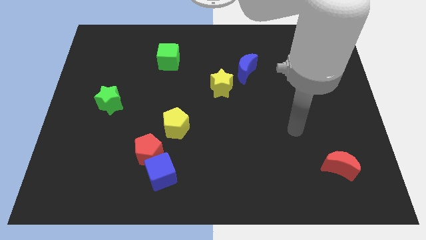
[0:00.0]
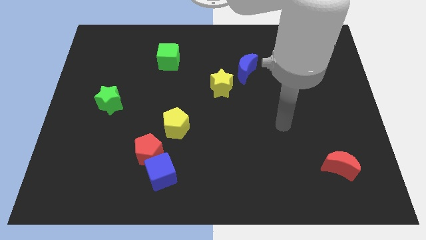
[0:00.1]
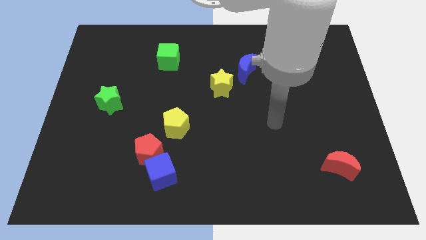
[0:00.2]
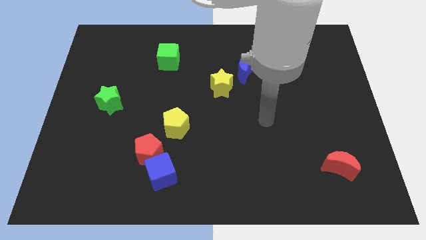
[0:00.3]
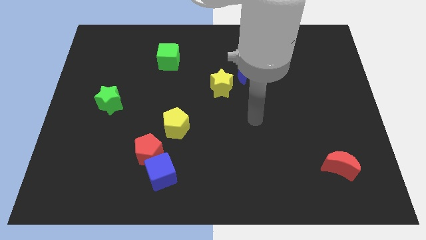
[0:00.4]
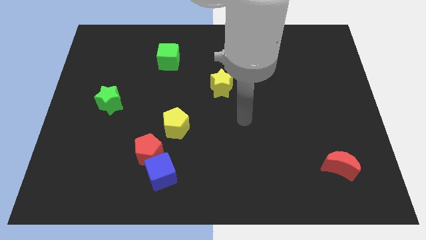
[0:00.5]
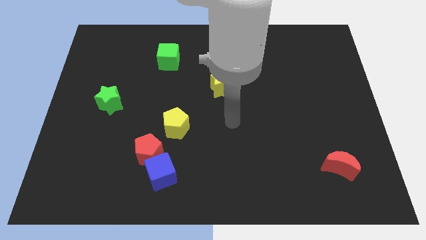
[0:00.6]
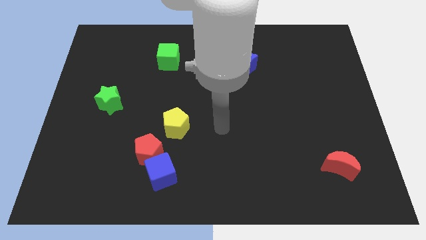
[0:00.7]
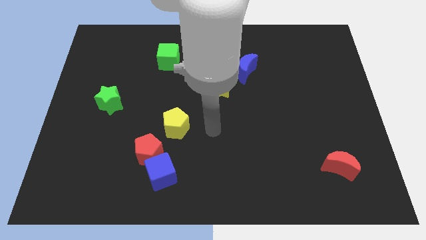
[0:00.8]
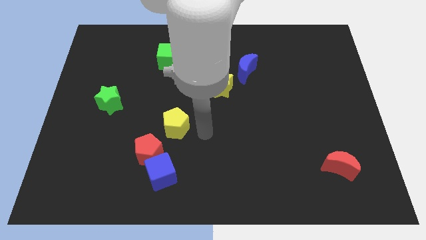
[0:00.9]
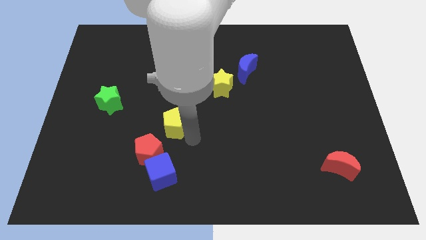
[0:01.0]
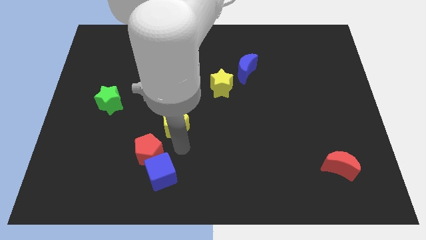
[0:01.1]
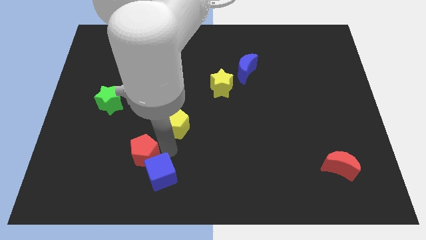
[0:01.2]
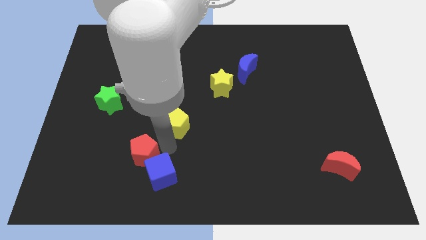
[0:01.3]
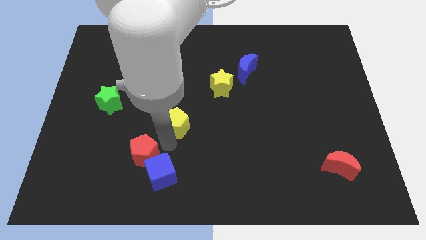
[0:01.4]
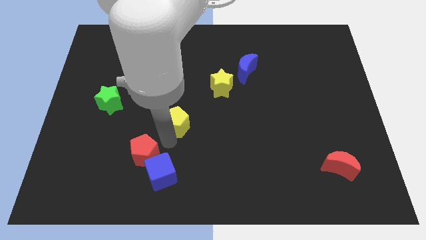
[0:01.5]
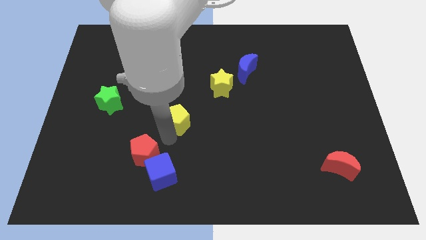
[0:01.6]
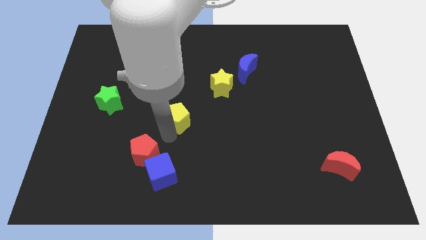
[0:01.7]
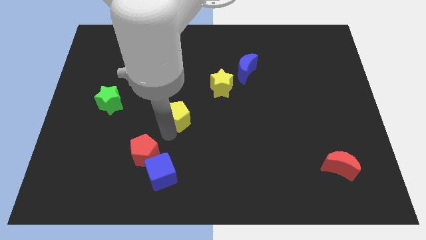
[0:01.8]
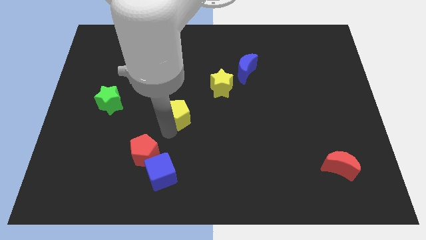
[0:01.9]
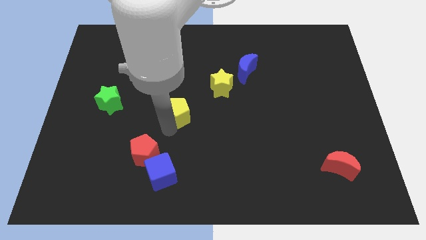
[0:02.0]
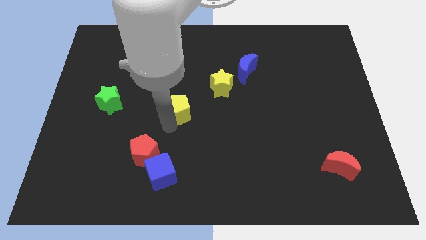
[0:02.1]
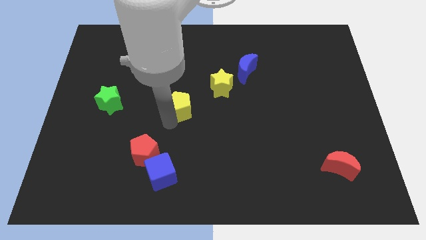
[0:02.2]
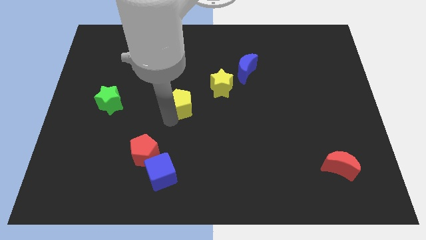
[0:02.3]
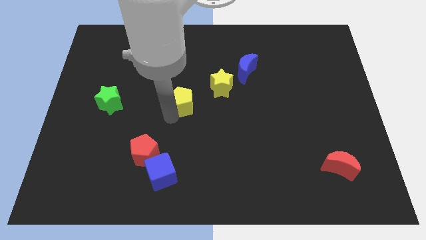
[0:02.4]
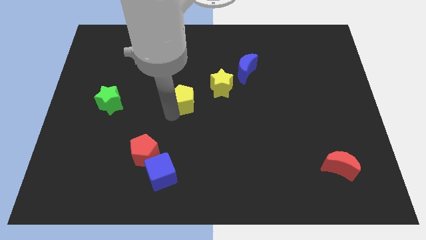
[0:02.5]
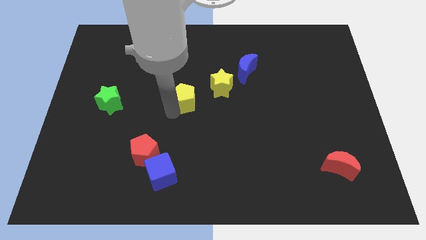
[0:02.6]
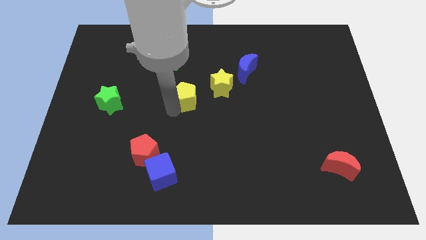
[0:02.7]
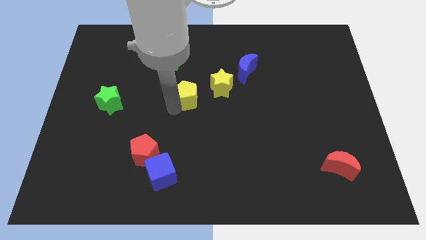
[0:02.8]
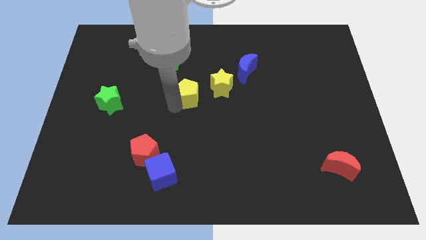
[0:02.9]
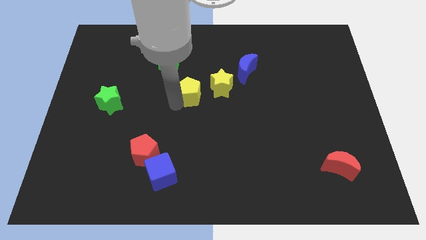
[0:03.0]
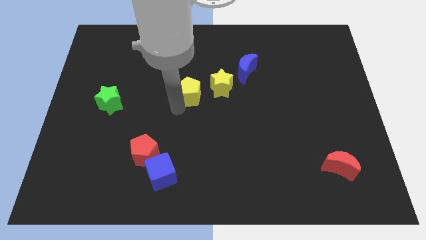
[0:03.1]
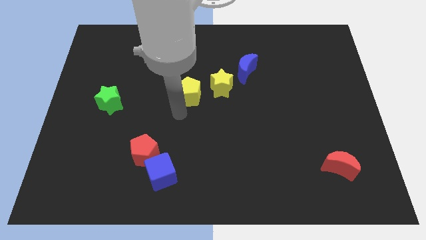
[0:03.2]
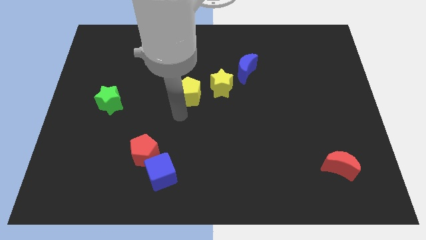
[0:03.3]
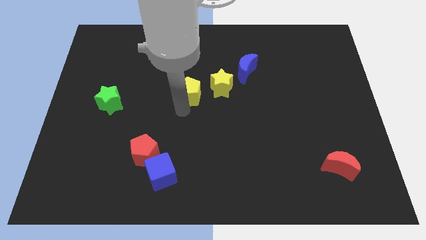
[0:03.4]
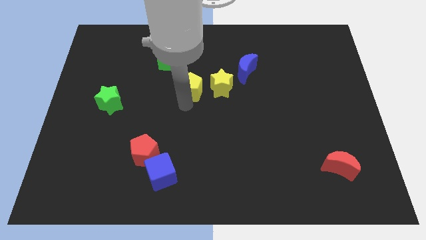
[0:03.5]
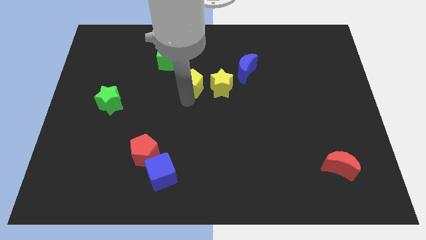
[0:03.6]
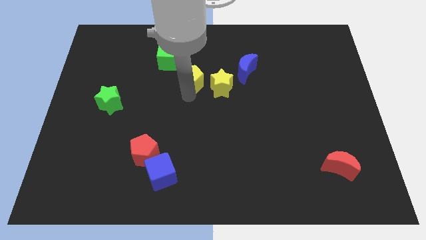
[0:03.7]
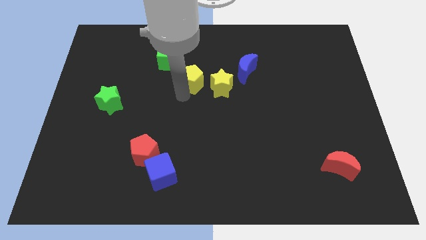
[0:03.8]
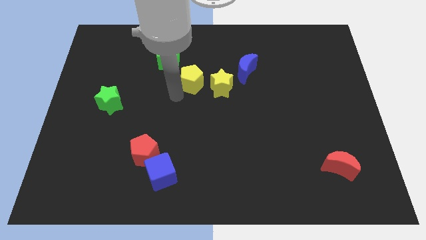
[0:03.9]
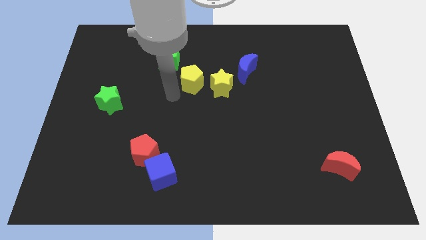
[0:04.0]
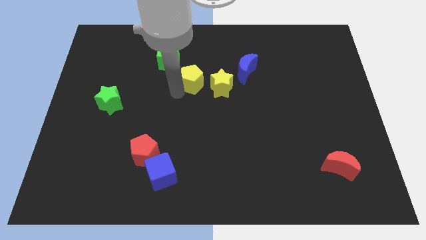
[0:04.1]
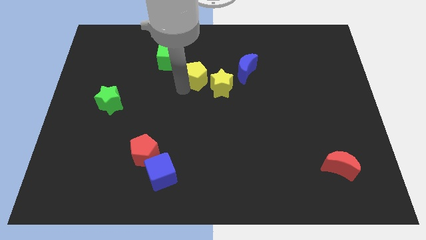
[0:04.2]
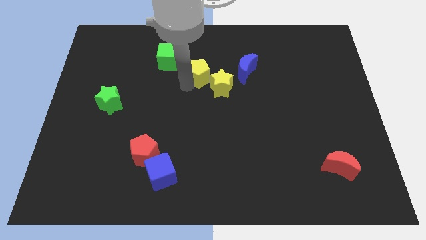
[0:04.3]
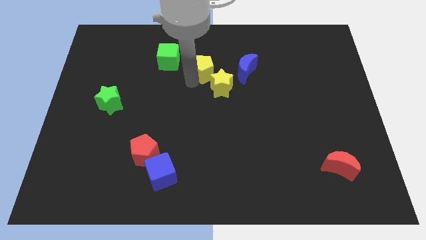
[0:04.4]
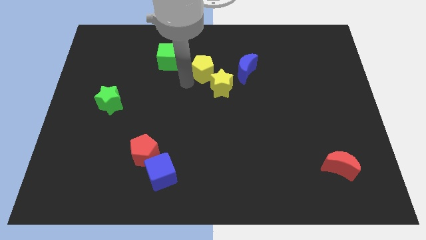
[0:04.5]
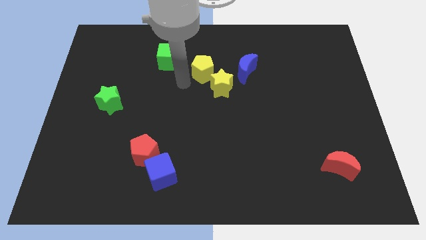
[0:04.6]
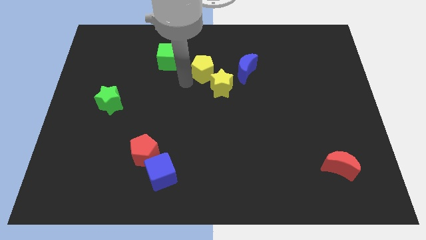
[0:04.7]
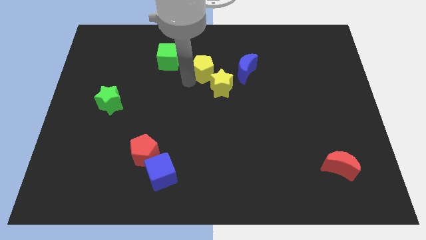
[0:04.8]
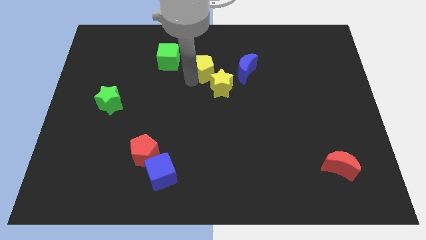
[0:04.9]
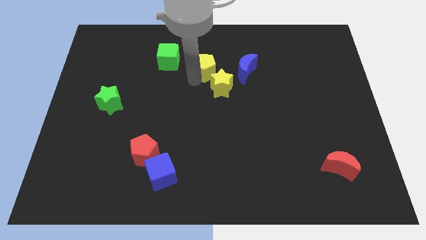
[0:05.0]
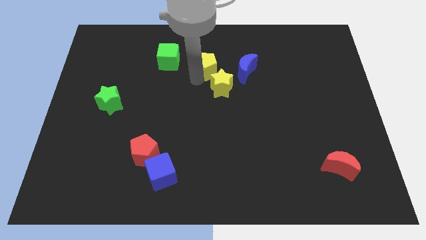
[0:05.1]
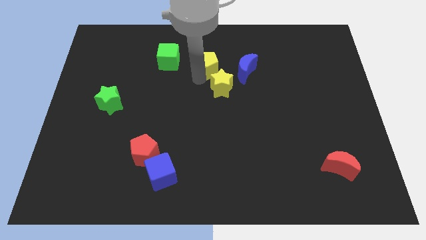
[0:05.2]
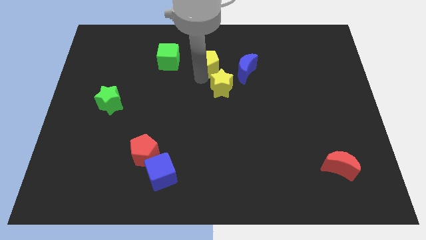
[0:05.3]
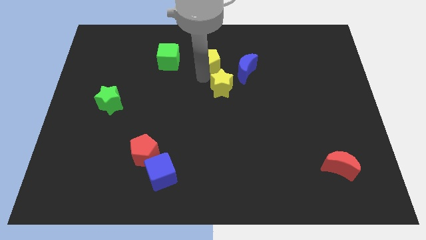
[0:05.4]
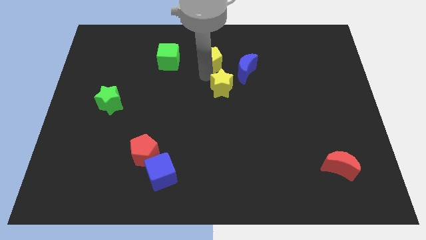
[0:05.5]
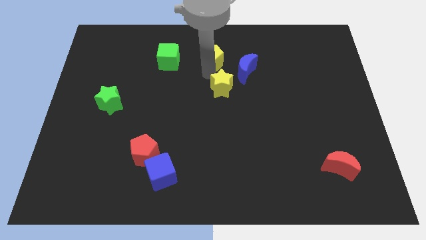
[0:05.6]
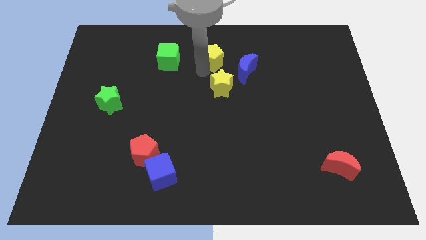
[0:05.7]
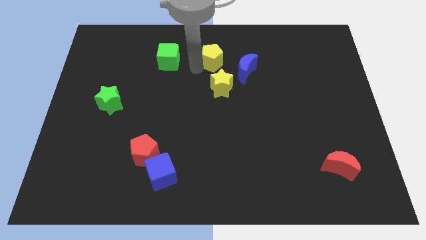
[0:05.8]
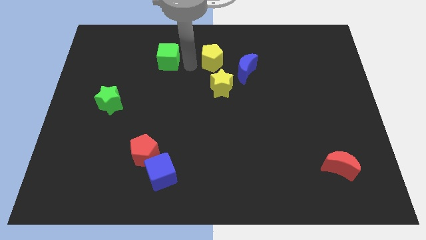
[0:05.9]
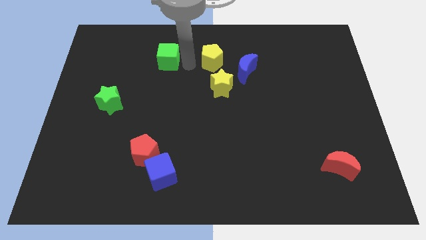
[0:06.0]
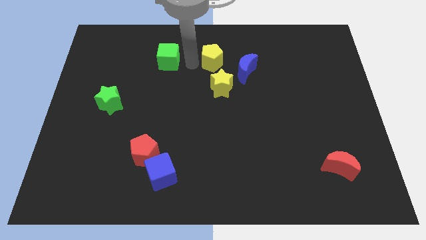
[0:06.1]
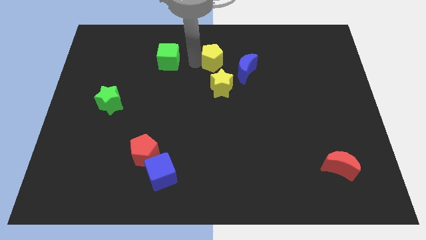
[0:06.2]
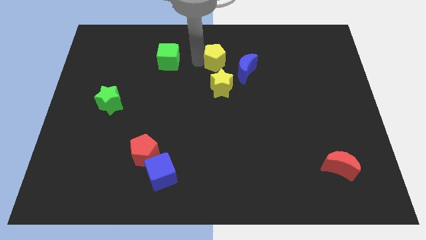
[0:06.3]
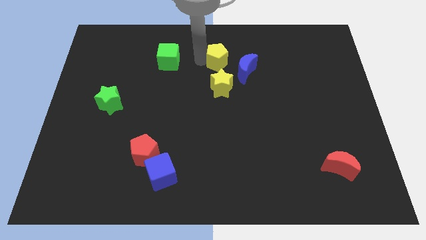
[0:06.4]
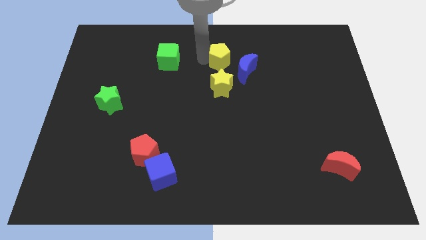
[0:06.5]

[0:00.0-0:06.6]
slide the yellow pentagon up and right diagonally

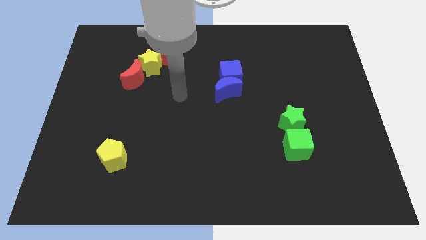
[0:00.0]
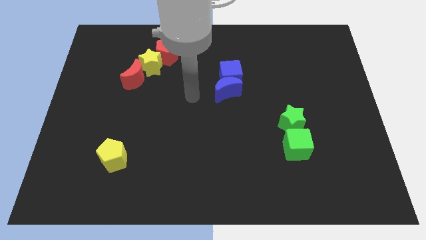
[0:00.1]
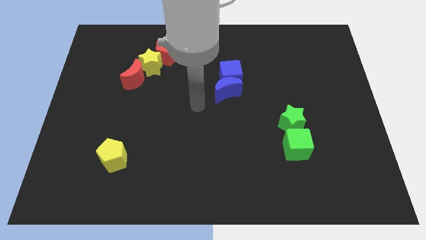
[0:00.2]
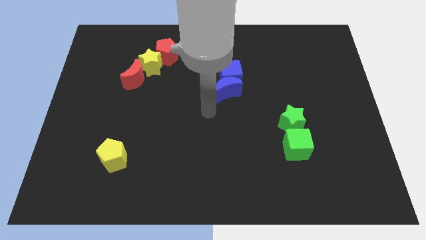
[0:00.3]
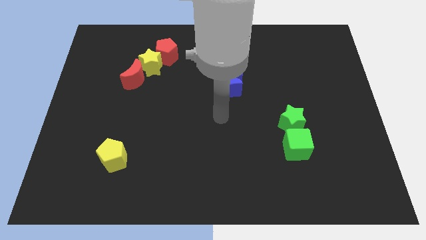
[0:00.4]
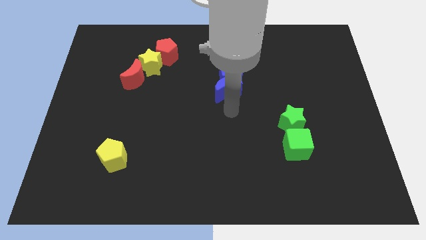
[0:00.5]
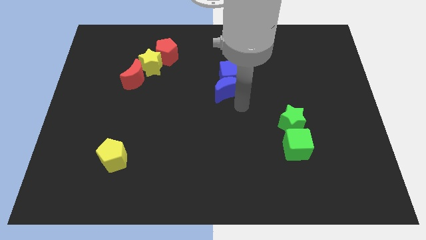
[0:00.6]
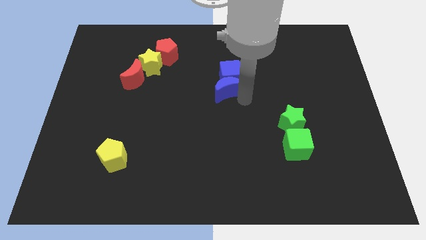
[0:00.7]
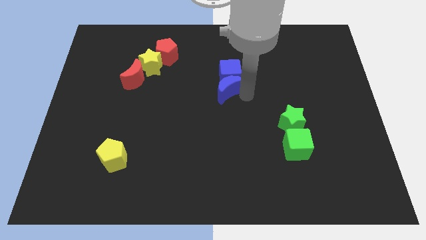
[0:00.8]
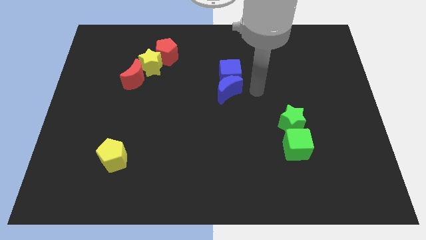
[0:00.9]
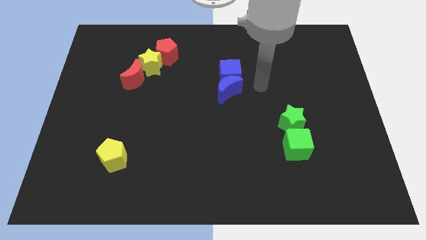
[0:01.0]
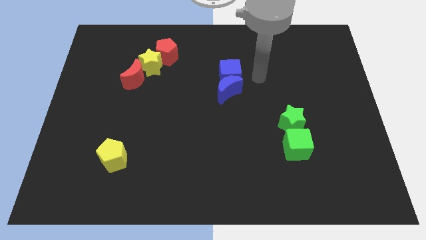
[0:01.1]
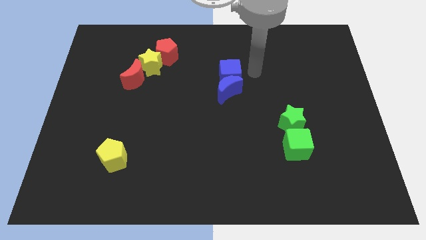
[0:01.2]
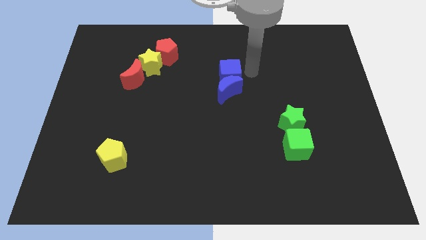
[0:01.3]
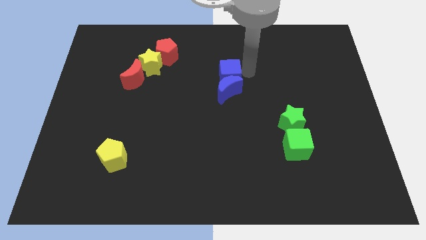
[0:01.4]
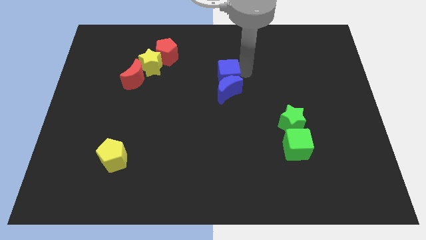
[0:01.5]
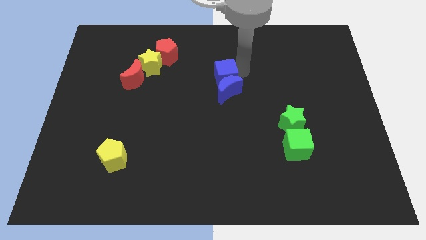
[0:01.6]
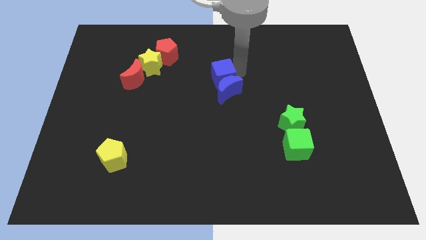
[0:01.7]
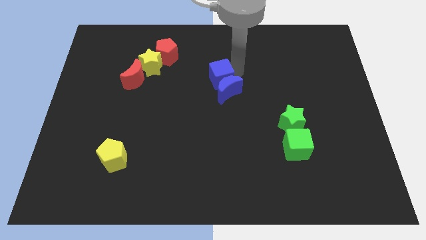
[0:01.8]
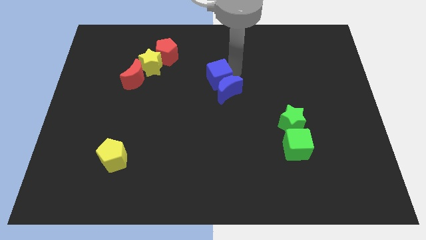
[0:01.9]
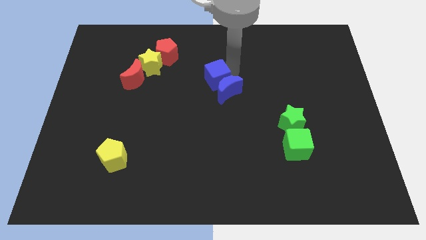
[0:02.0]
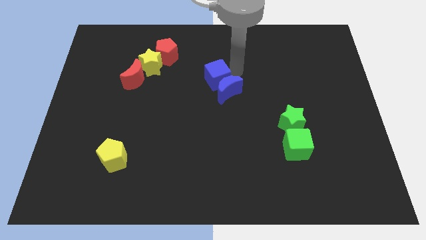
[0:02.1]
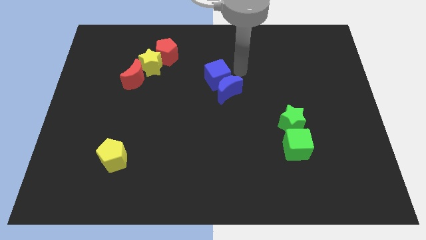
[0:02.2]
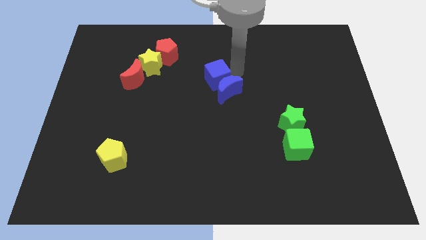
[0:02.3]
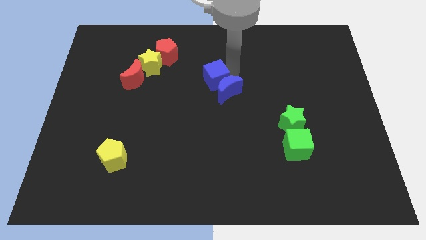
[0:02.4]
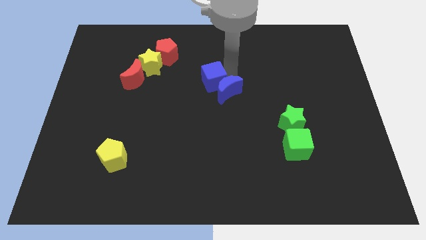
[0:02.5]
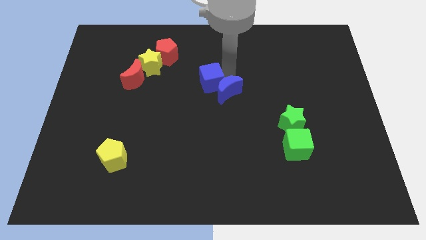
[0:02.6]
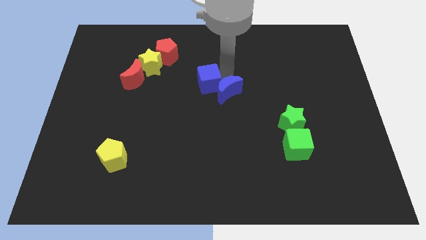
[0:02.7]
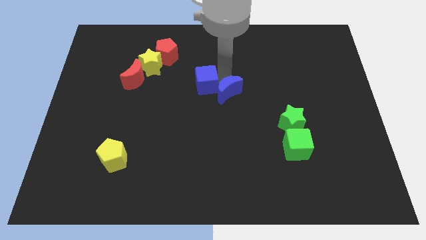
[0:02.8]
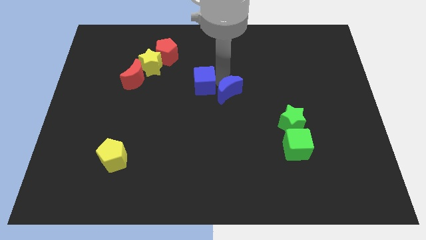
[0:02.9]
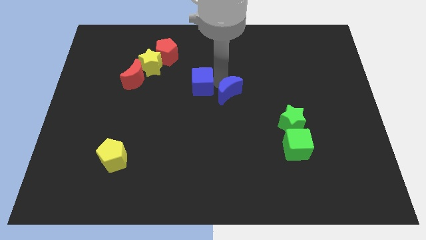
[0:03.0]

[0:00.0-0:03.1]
push the blue cube to the left a little bit
